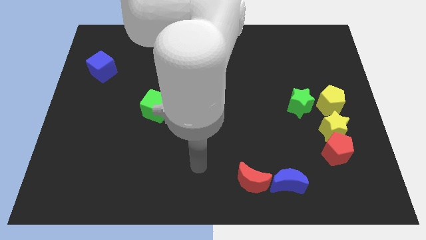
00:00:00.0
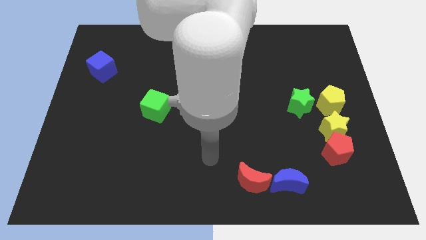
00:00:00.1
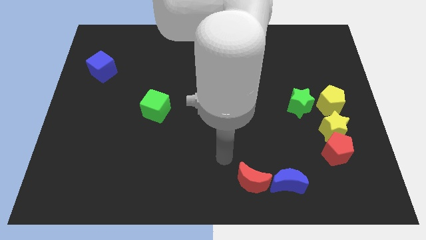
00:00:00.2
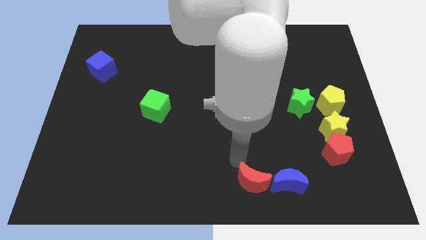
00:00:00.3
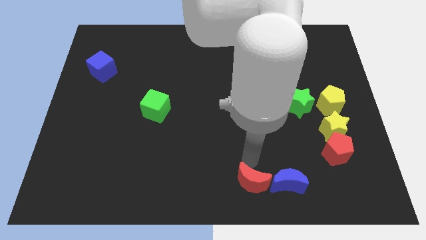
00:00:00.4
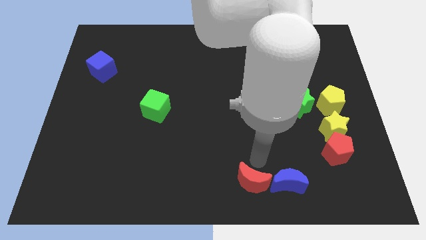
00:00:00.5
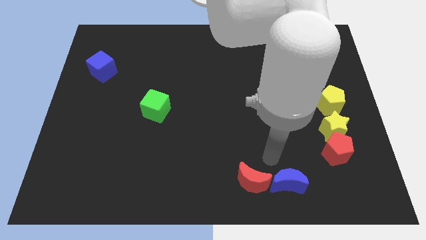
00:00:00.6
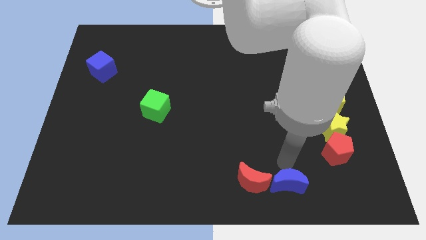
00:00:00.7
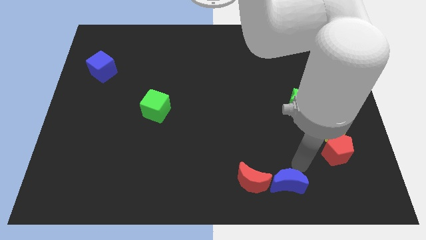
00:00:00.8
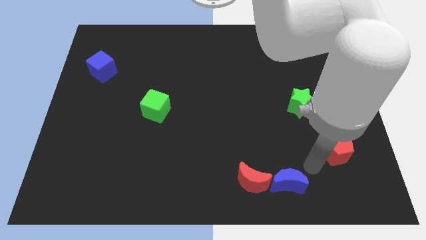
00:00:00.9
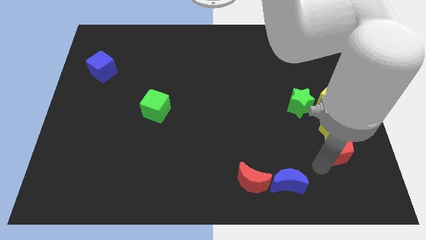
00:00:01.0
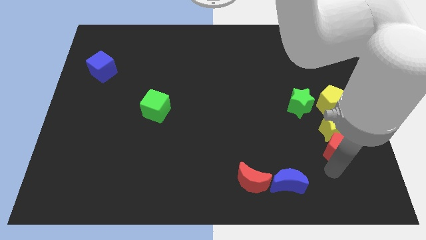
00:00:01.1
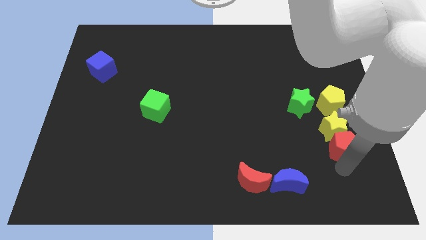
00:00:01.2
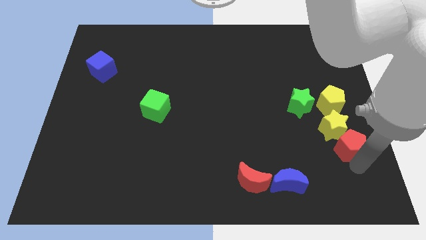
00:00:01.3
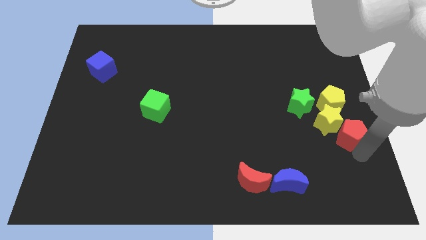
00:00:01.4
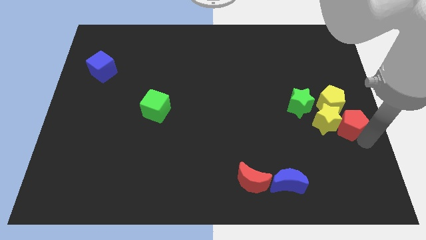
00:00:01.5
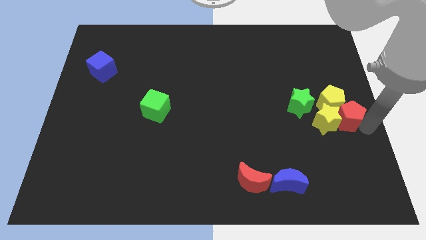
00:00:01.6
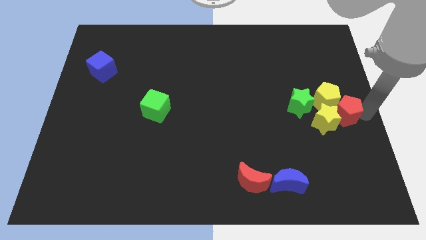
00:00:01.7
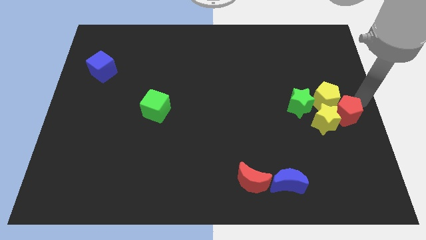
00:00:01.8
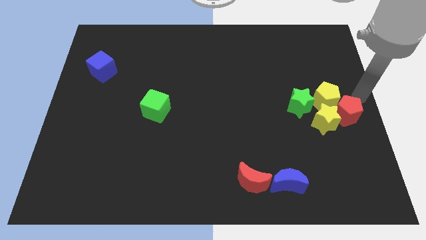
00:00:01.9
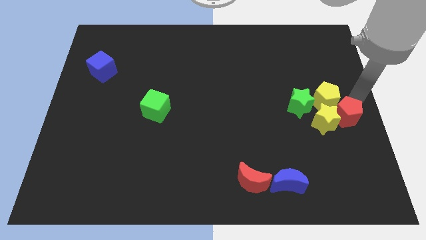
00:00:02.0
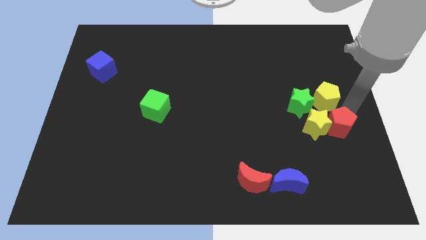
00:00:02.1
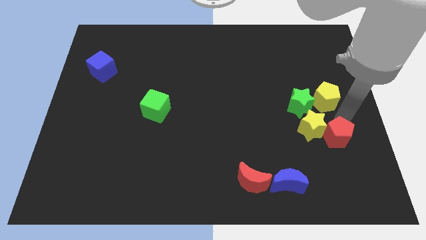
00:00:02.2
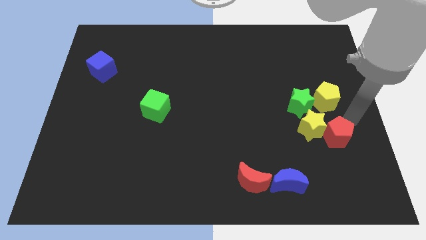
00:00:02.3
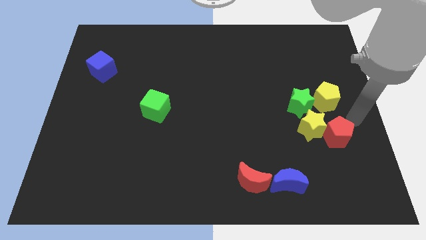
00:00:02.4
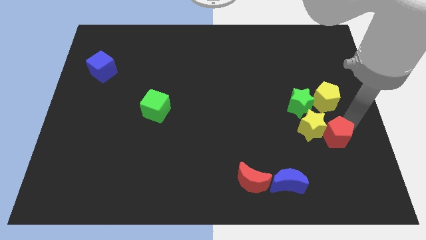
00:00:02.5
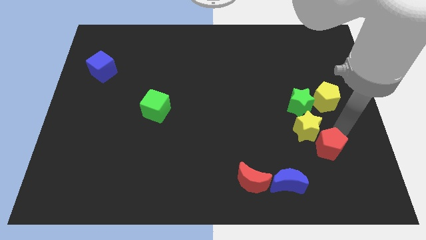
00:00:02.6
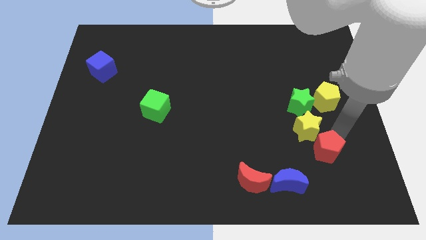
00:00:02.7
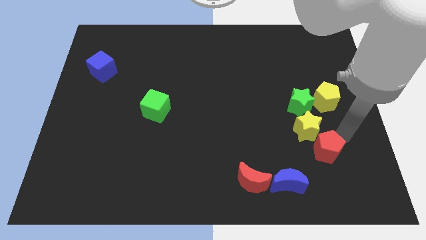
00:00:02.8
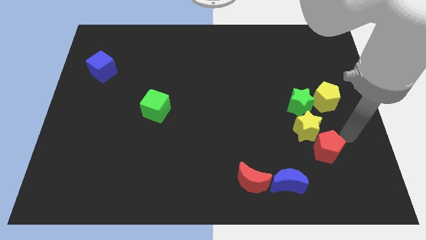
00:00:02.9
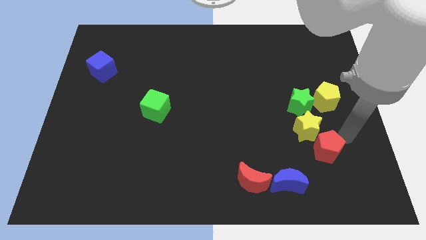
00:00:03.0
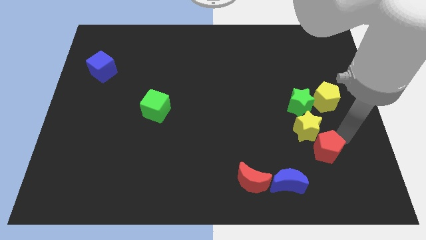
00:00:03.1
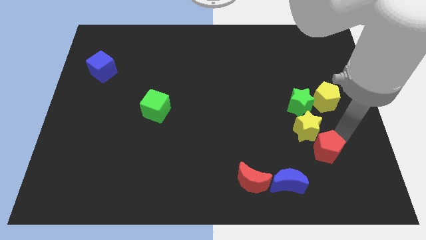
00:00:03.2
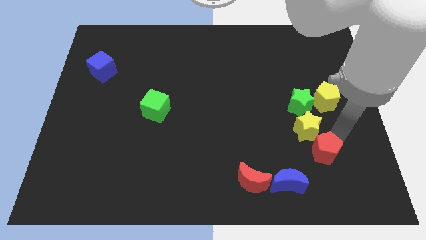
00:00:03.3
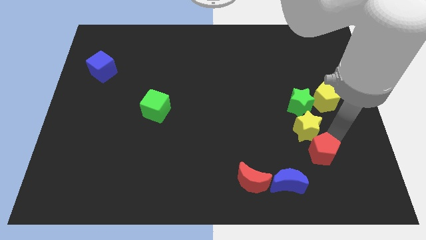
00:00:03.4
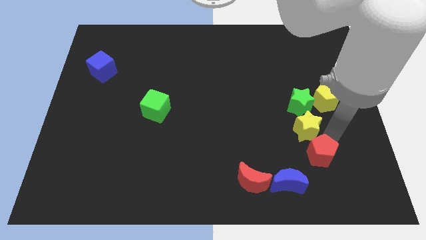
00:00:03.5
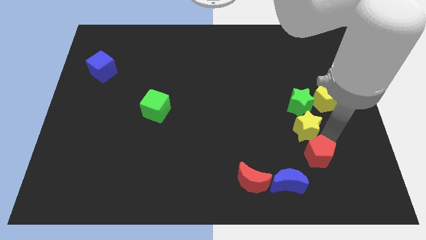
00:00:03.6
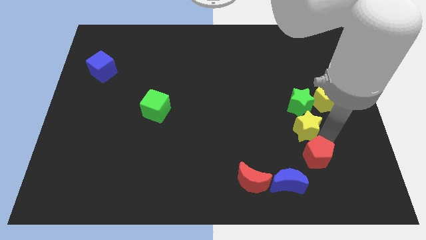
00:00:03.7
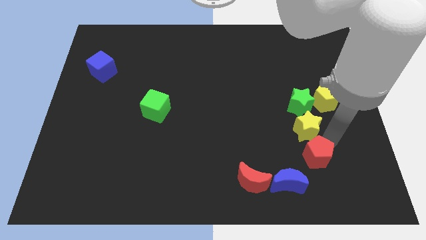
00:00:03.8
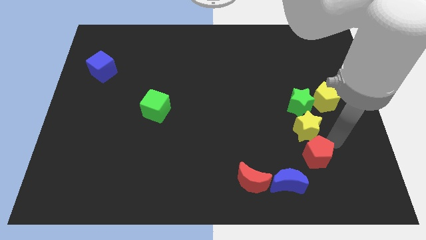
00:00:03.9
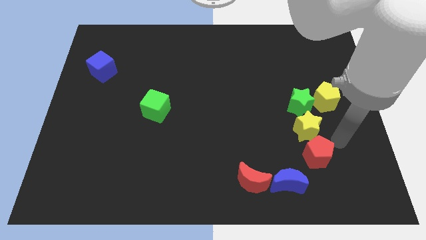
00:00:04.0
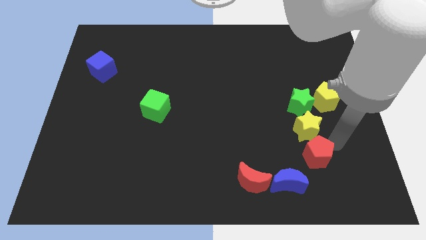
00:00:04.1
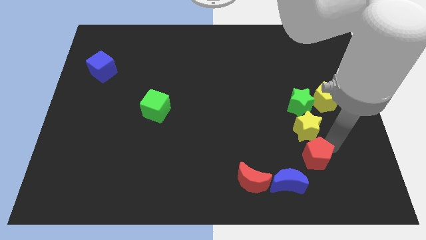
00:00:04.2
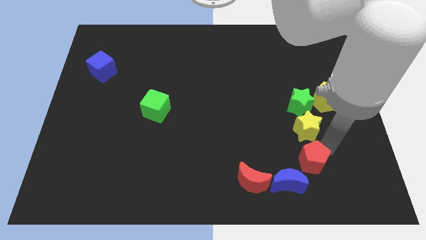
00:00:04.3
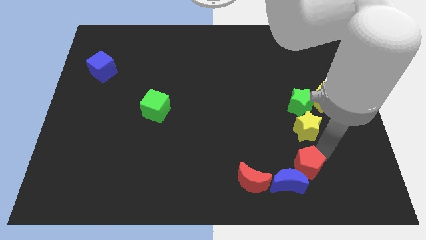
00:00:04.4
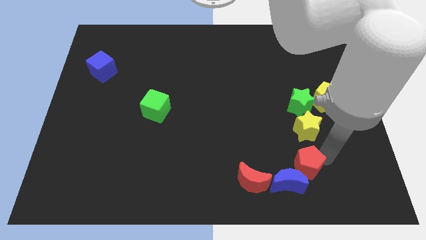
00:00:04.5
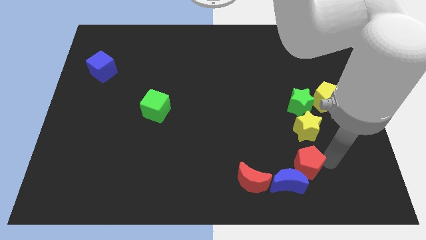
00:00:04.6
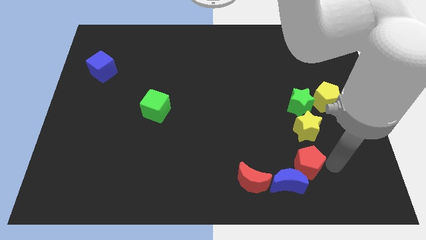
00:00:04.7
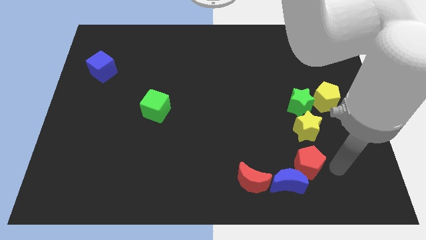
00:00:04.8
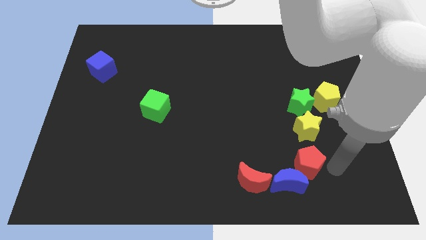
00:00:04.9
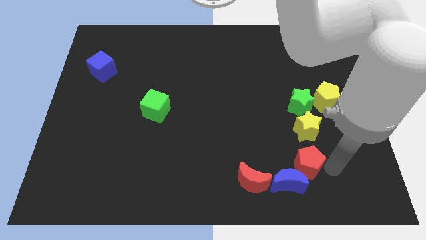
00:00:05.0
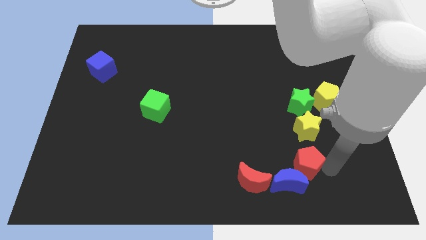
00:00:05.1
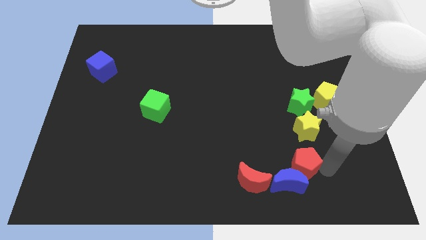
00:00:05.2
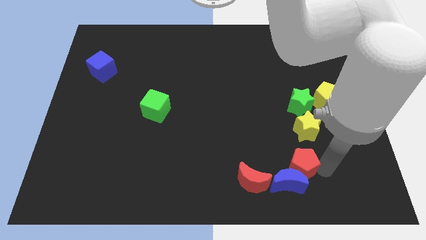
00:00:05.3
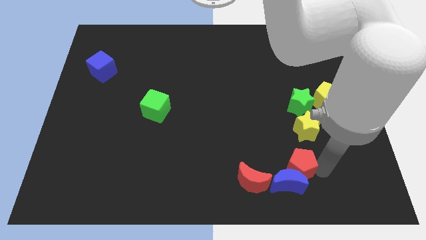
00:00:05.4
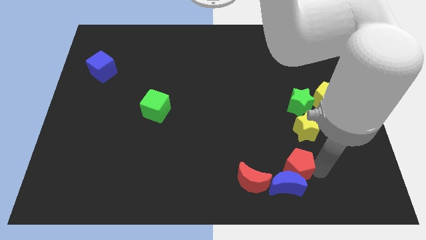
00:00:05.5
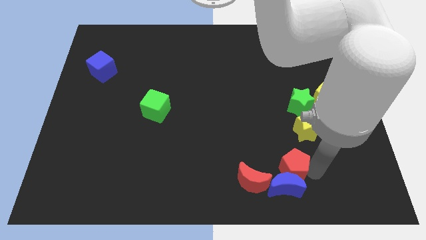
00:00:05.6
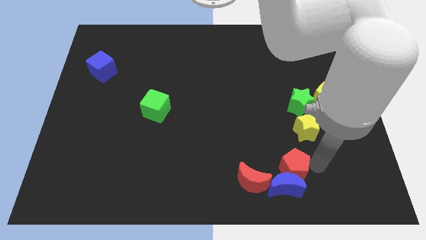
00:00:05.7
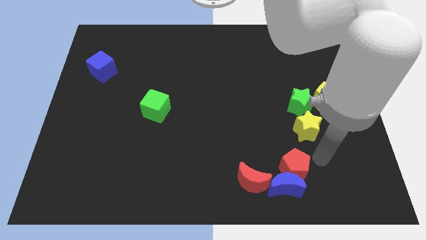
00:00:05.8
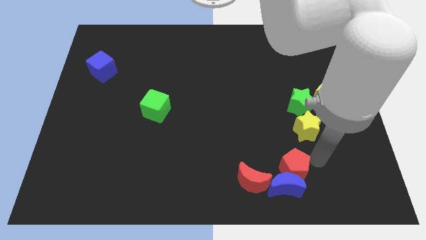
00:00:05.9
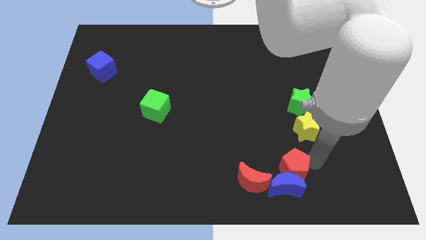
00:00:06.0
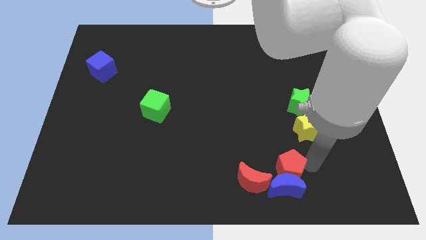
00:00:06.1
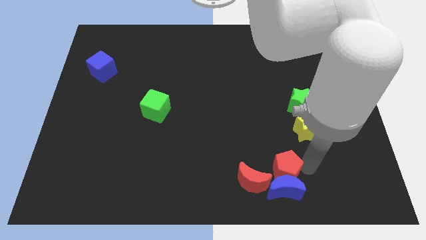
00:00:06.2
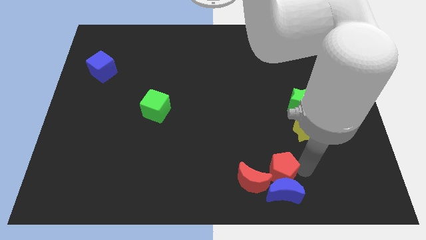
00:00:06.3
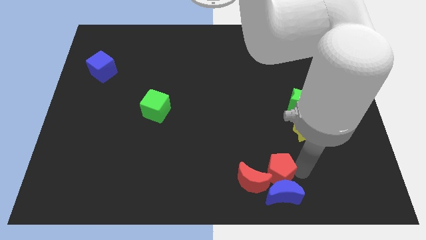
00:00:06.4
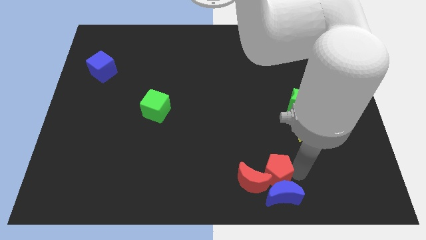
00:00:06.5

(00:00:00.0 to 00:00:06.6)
move the red pentagon close to the red moon
